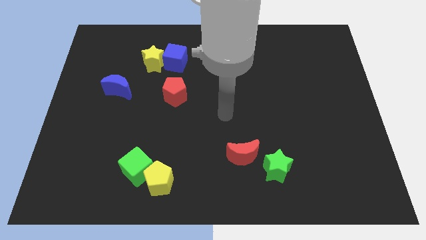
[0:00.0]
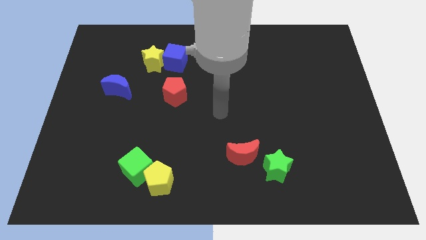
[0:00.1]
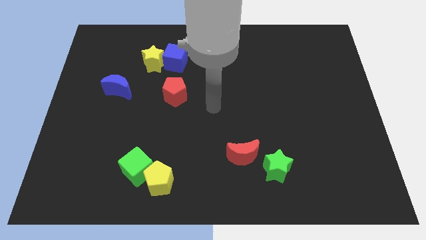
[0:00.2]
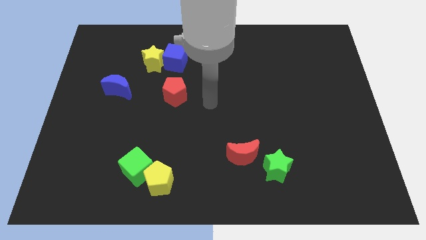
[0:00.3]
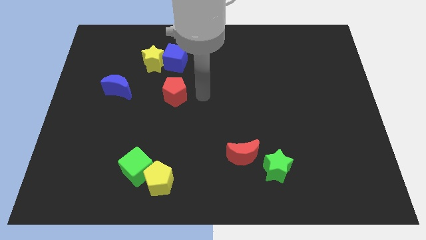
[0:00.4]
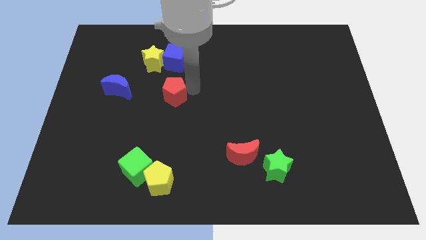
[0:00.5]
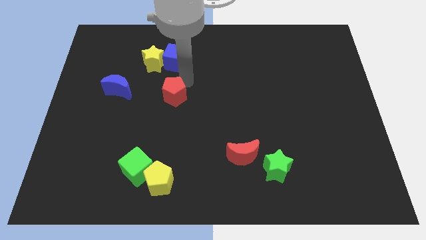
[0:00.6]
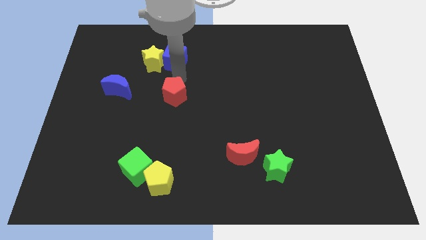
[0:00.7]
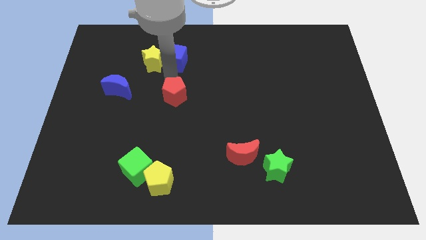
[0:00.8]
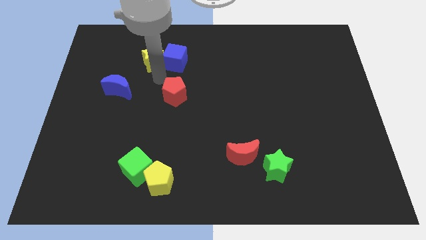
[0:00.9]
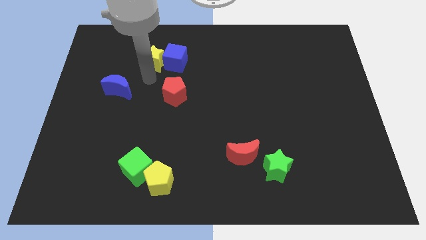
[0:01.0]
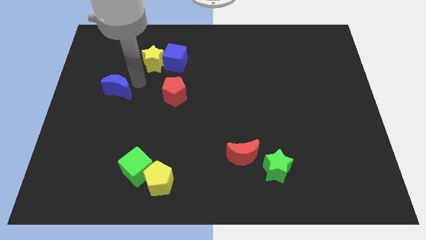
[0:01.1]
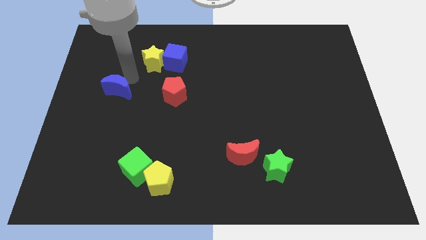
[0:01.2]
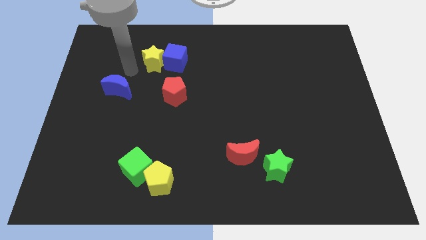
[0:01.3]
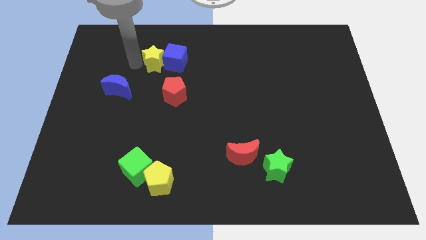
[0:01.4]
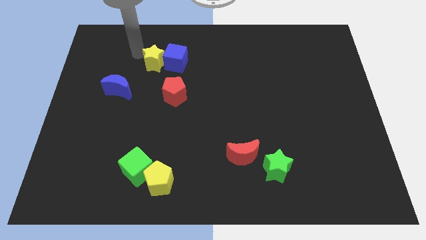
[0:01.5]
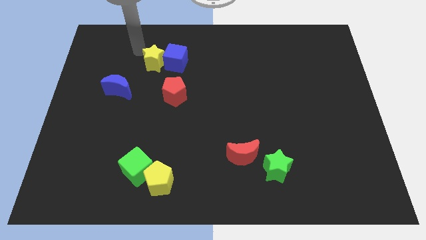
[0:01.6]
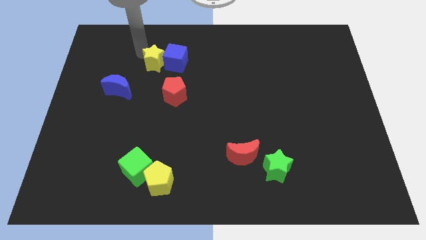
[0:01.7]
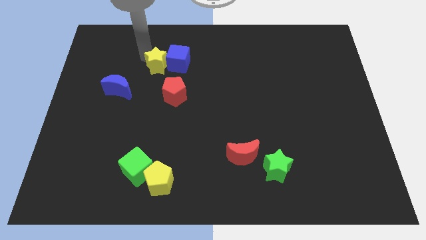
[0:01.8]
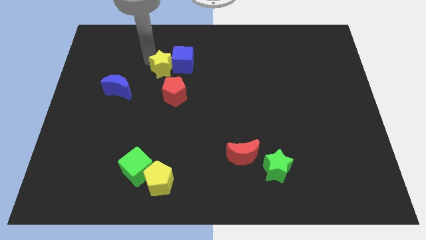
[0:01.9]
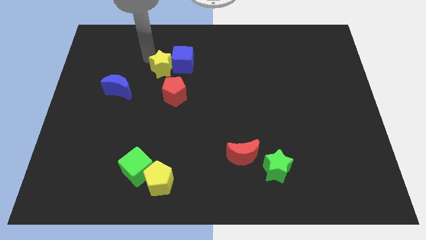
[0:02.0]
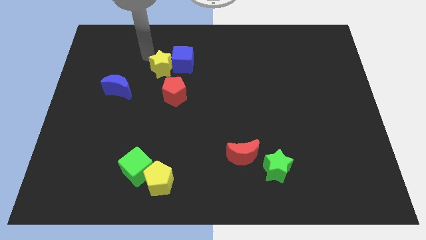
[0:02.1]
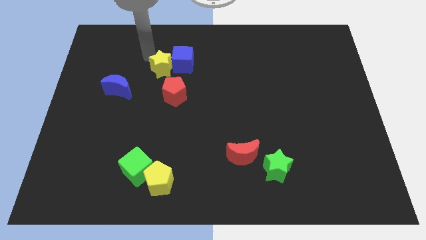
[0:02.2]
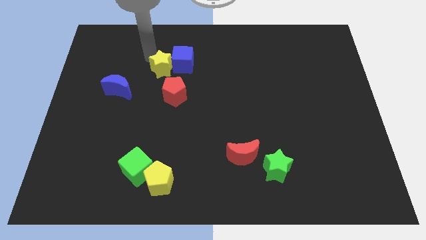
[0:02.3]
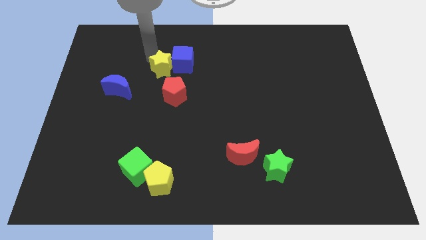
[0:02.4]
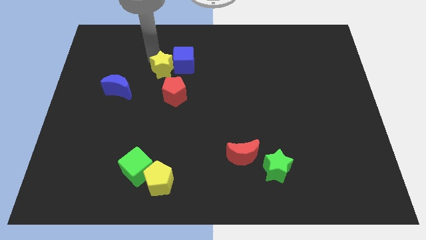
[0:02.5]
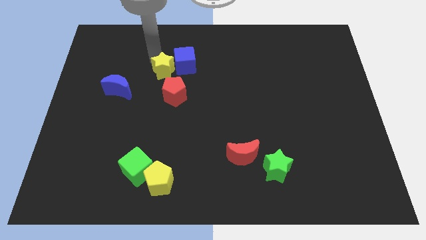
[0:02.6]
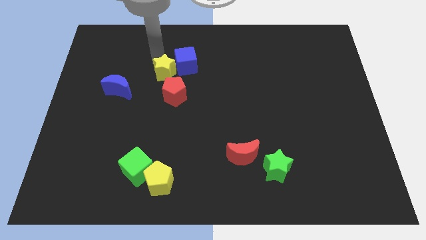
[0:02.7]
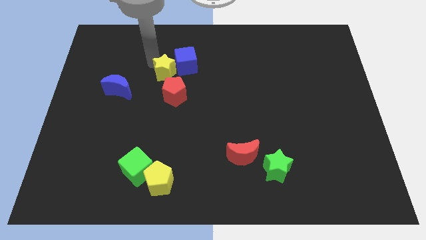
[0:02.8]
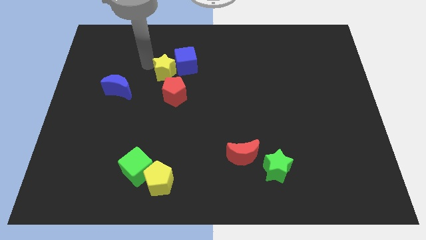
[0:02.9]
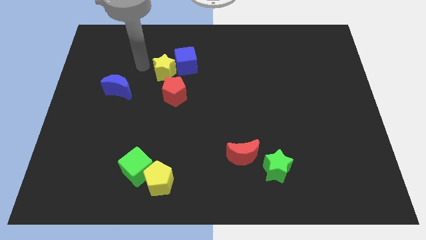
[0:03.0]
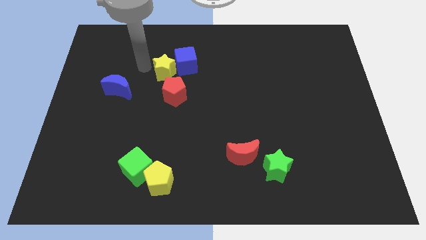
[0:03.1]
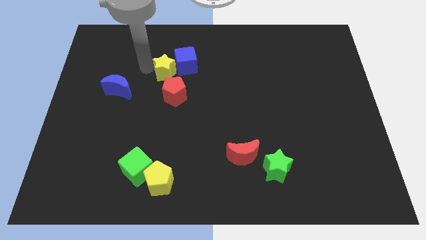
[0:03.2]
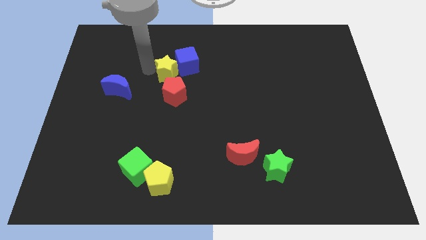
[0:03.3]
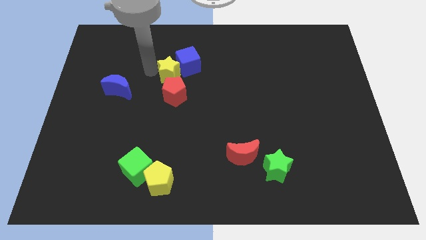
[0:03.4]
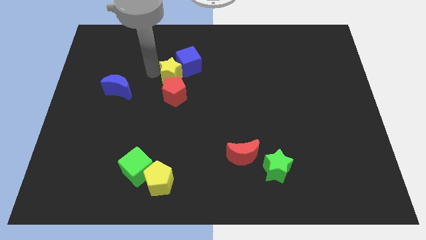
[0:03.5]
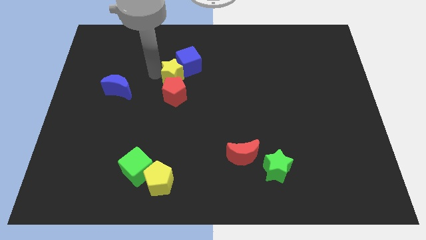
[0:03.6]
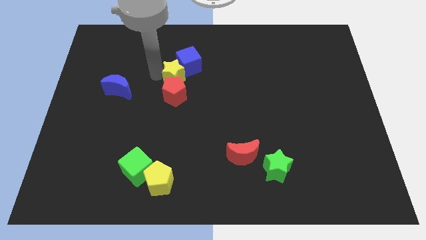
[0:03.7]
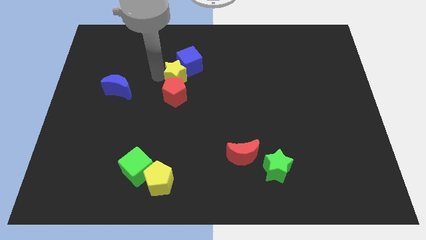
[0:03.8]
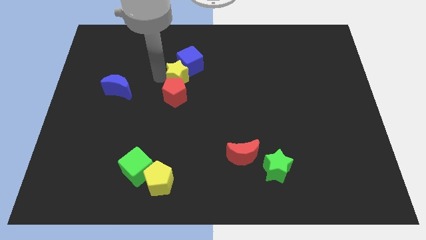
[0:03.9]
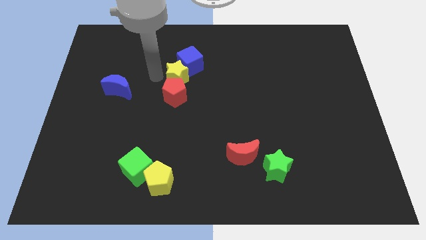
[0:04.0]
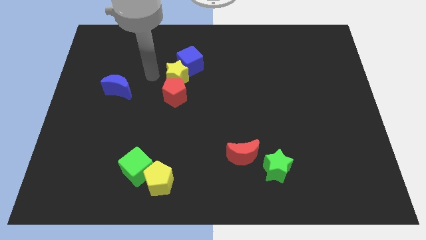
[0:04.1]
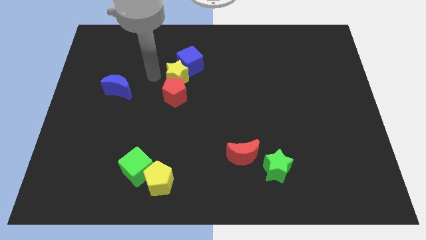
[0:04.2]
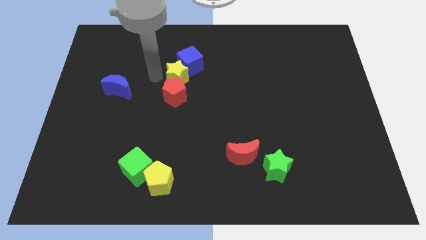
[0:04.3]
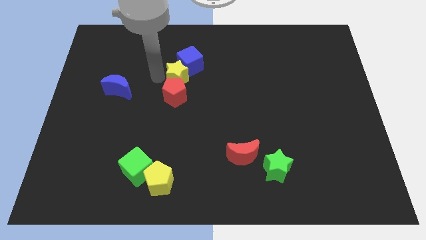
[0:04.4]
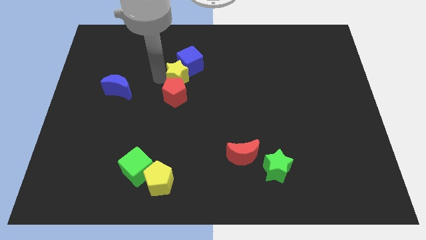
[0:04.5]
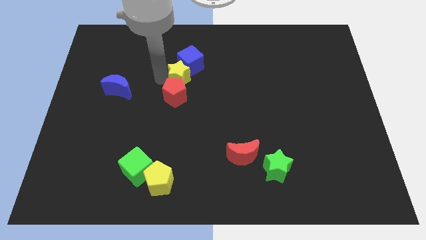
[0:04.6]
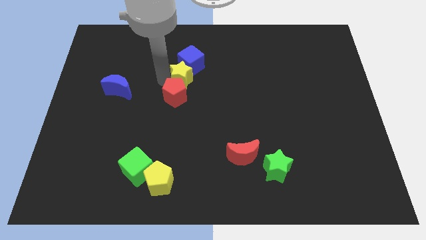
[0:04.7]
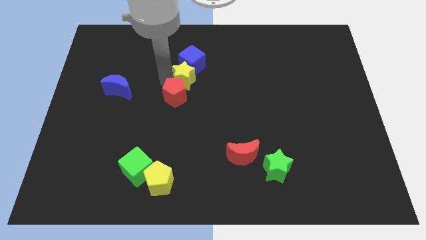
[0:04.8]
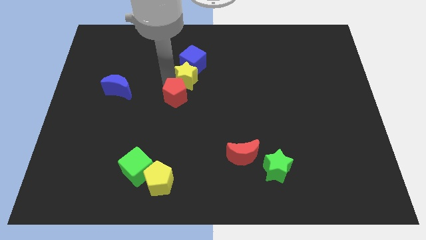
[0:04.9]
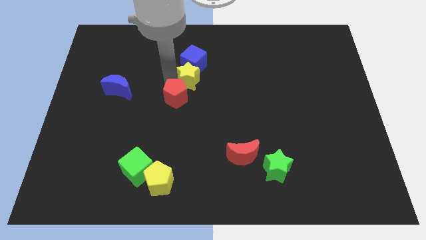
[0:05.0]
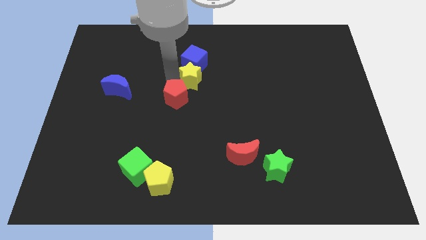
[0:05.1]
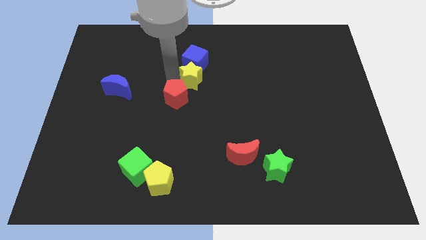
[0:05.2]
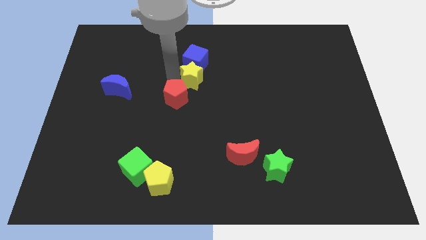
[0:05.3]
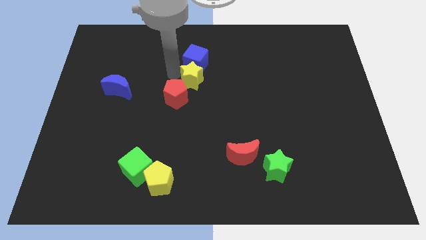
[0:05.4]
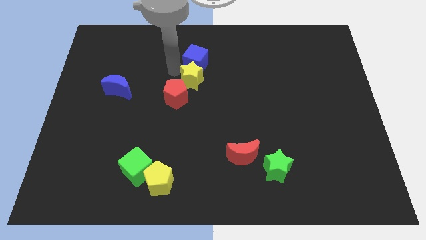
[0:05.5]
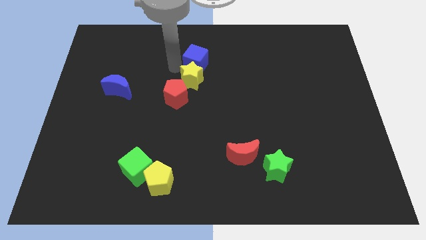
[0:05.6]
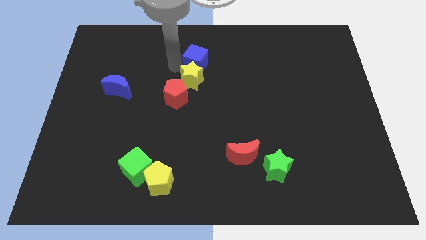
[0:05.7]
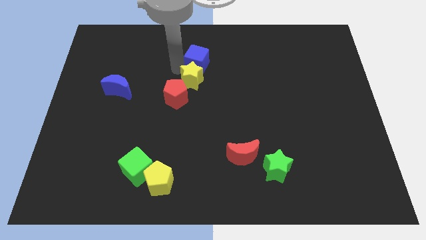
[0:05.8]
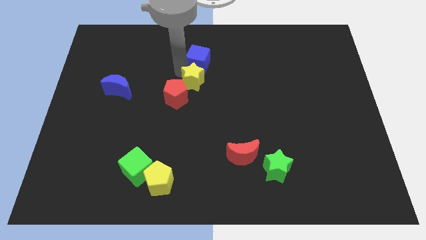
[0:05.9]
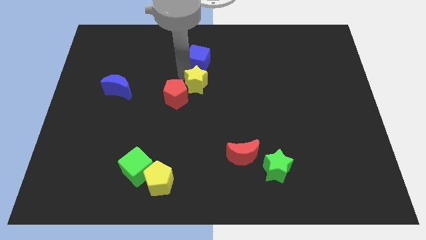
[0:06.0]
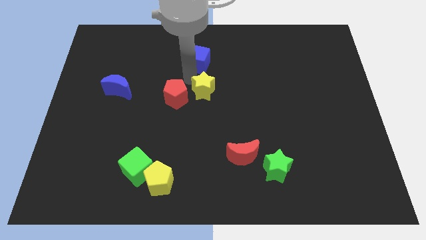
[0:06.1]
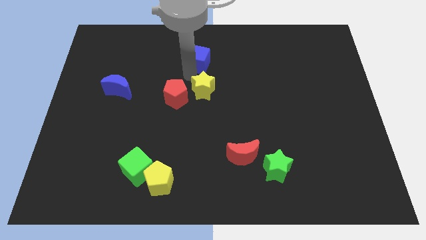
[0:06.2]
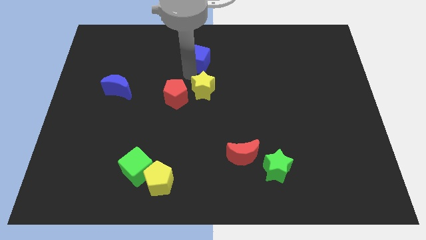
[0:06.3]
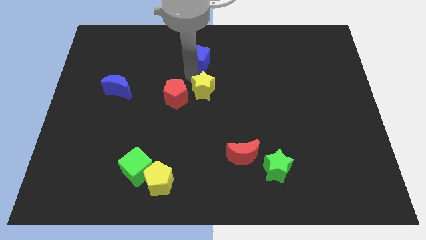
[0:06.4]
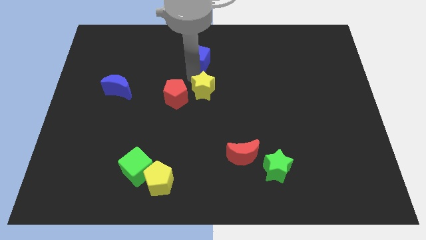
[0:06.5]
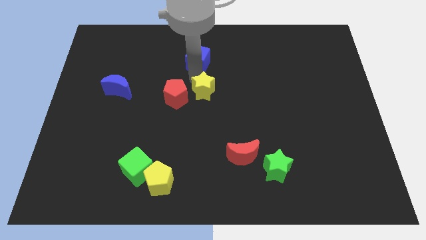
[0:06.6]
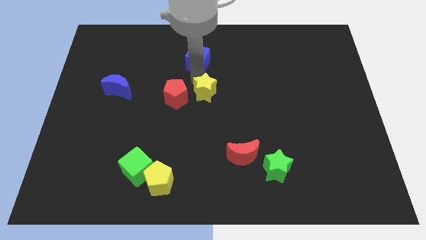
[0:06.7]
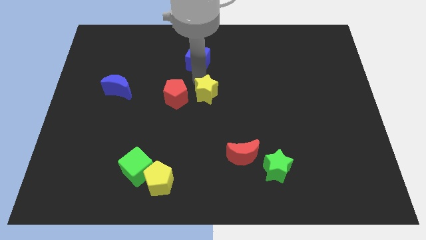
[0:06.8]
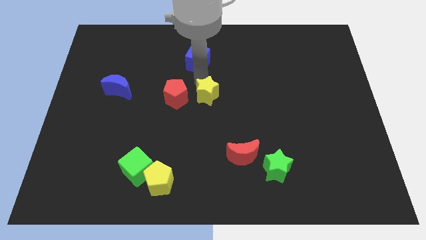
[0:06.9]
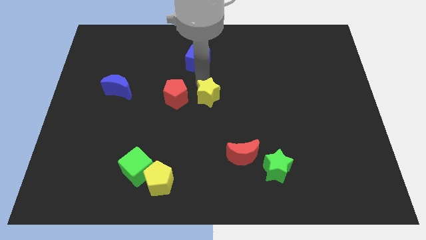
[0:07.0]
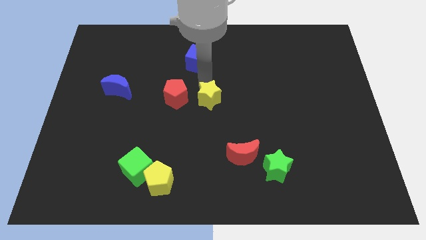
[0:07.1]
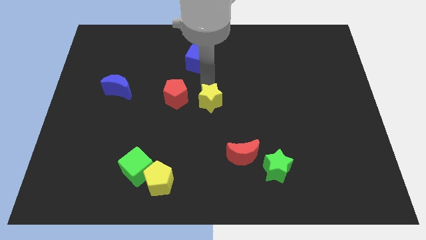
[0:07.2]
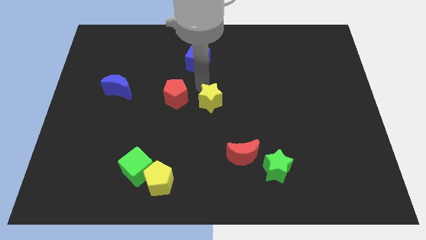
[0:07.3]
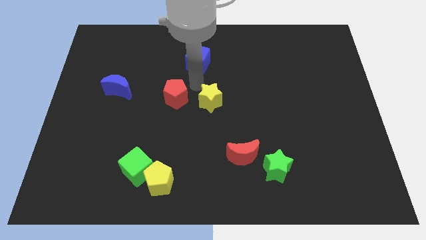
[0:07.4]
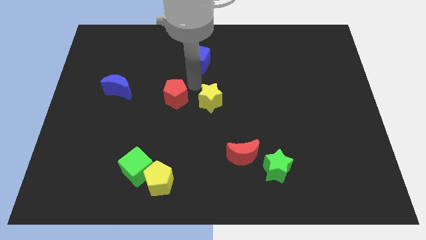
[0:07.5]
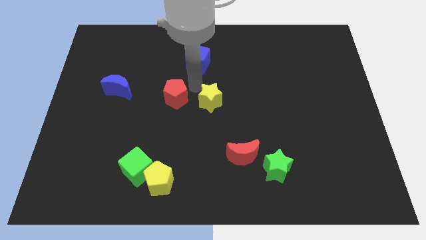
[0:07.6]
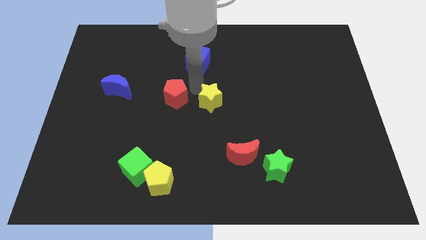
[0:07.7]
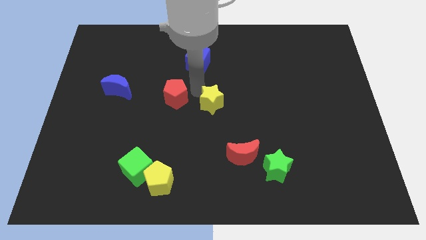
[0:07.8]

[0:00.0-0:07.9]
move the yellow star down and to the right diagonally

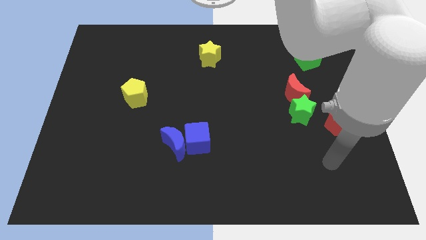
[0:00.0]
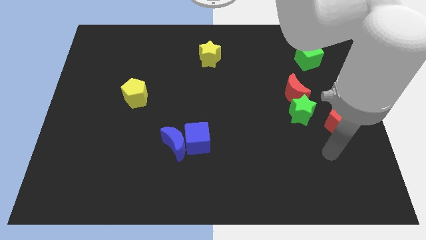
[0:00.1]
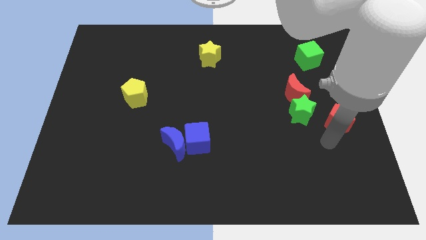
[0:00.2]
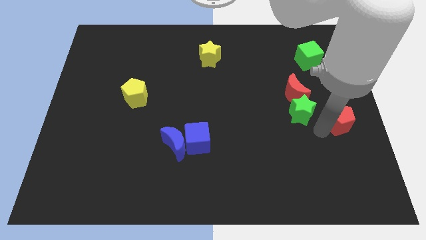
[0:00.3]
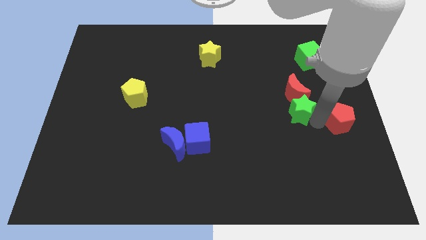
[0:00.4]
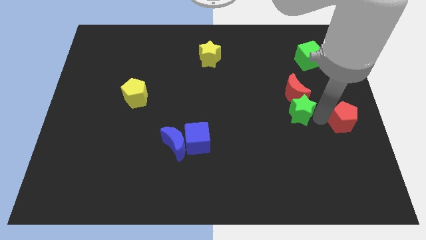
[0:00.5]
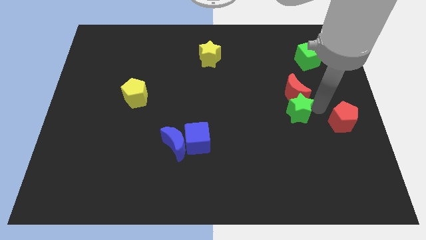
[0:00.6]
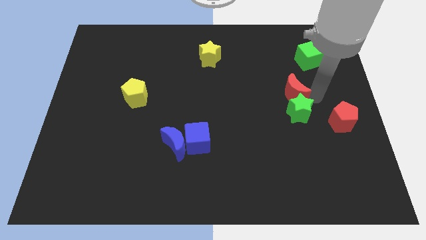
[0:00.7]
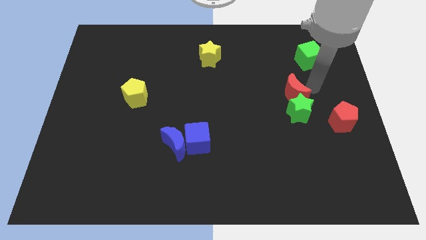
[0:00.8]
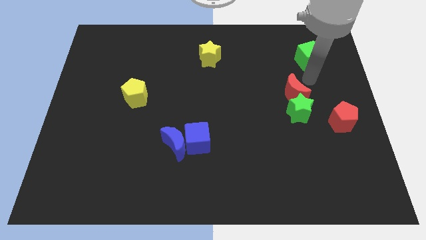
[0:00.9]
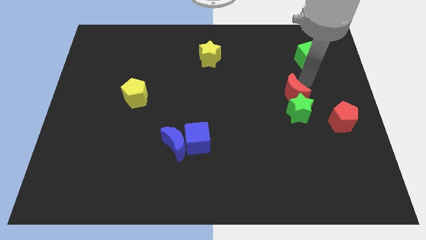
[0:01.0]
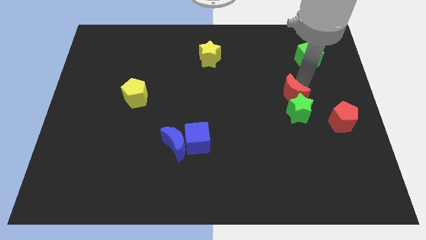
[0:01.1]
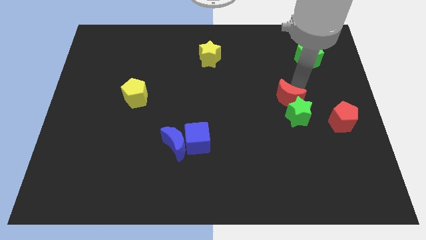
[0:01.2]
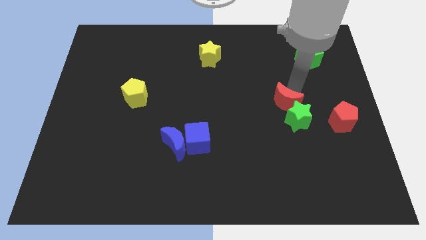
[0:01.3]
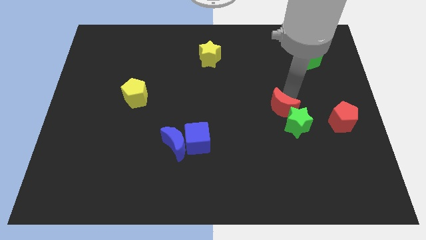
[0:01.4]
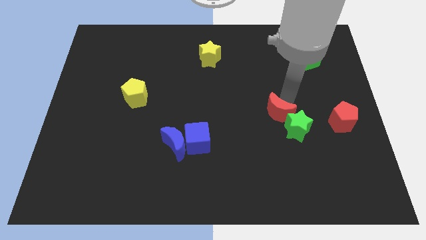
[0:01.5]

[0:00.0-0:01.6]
push the red moon a bit diagonally down and left
